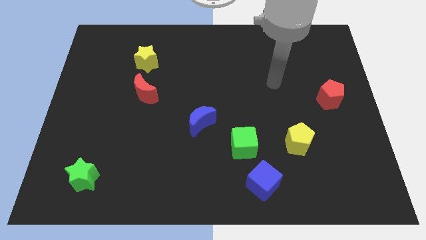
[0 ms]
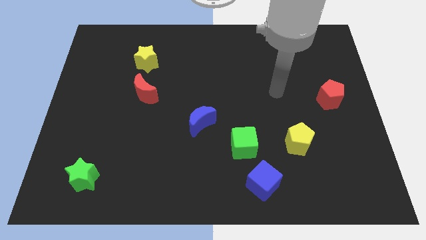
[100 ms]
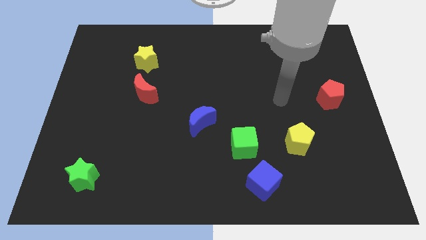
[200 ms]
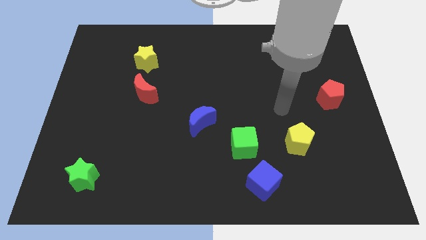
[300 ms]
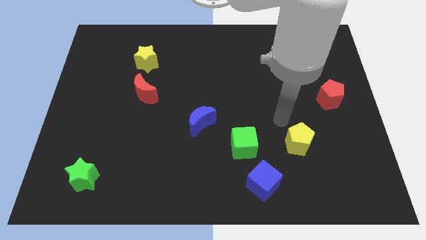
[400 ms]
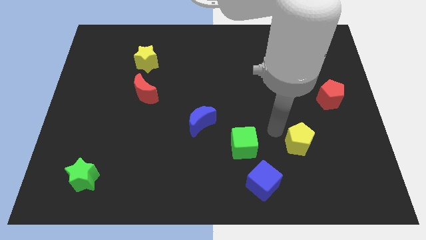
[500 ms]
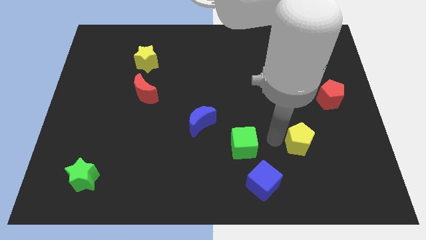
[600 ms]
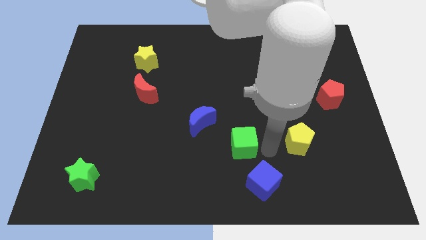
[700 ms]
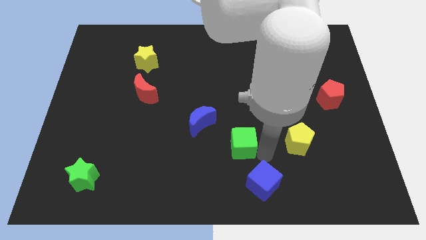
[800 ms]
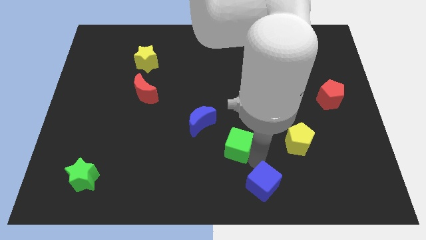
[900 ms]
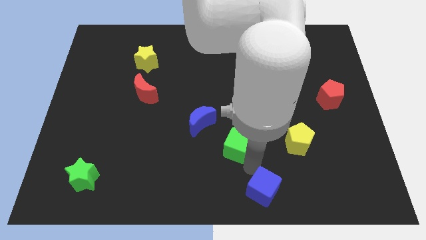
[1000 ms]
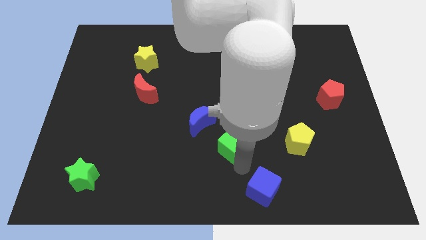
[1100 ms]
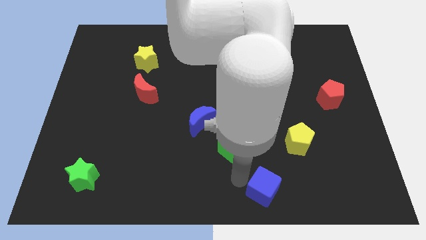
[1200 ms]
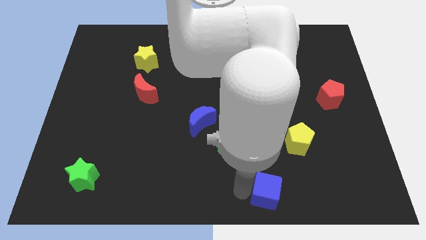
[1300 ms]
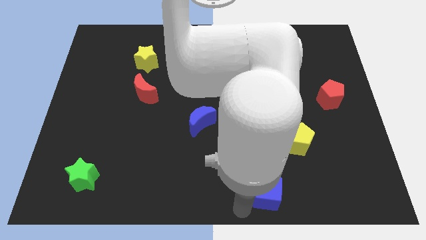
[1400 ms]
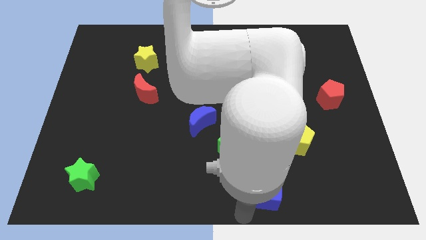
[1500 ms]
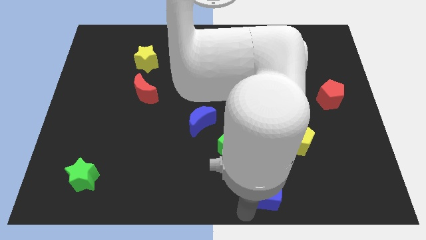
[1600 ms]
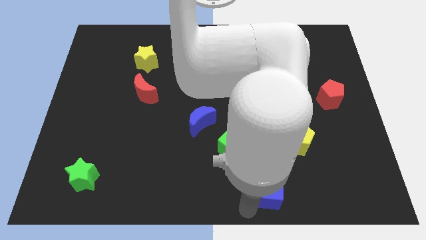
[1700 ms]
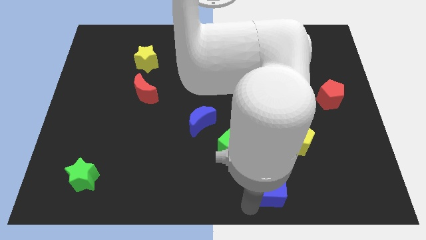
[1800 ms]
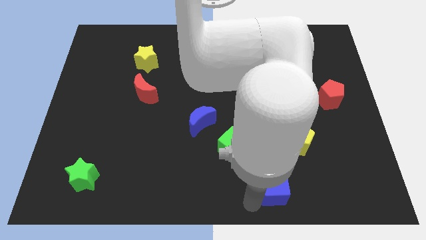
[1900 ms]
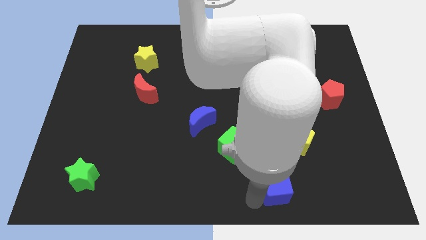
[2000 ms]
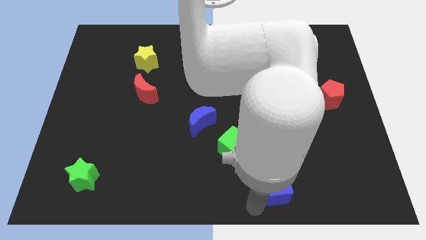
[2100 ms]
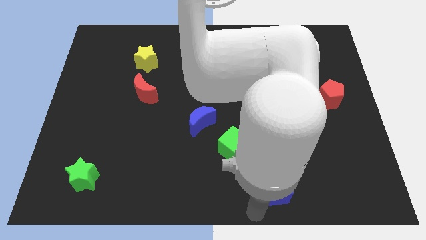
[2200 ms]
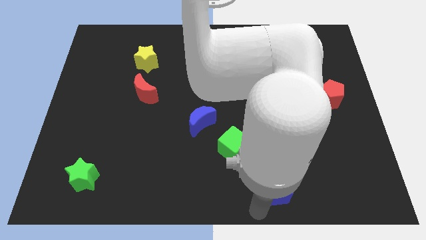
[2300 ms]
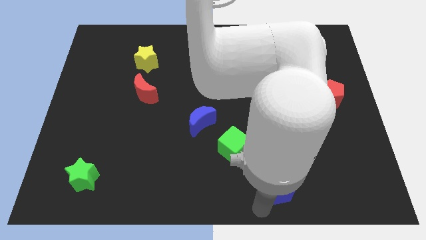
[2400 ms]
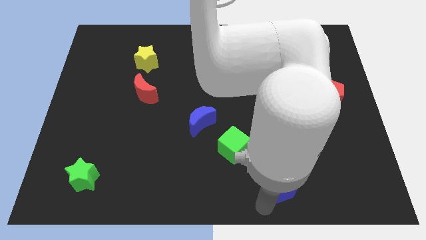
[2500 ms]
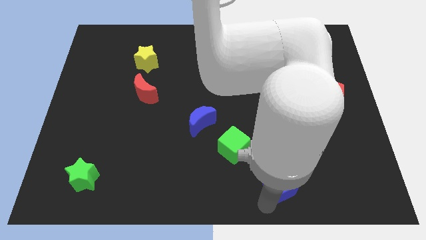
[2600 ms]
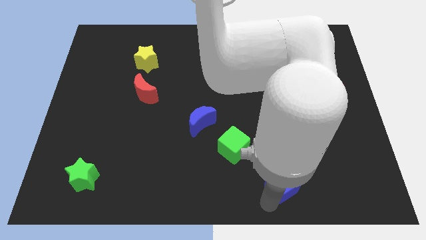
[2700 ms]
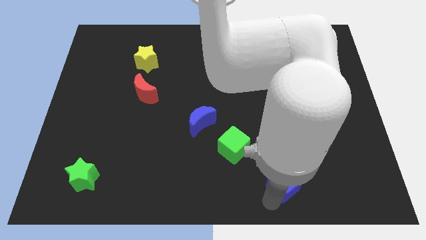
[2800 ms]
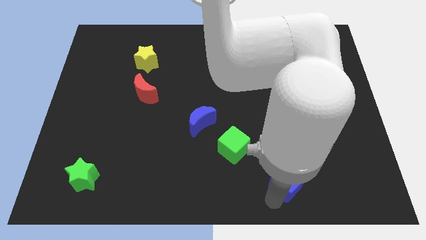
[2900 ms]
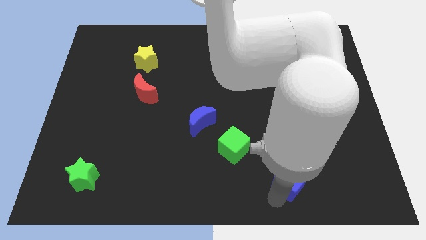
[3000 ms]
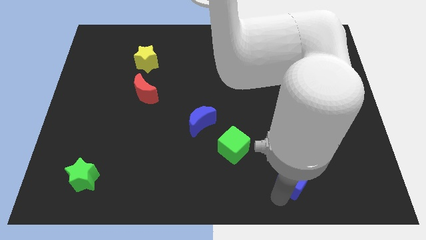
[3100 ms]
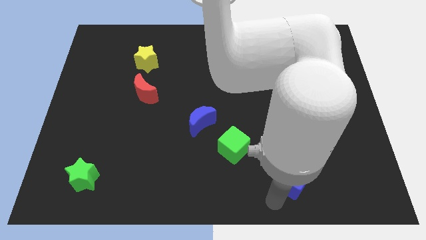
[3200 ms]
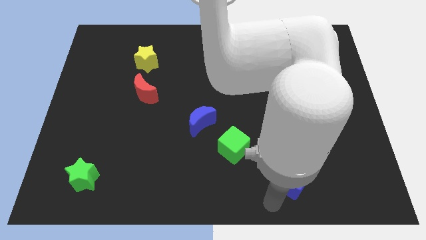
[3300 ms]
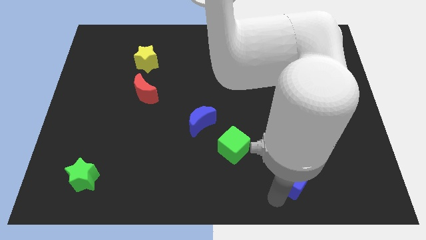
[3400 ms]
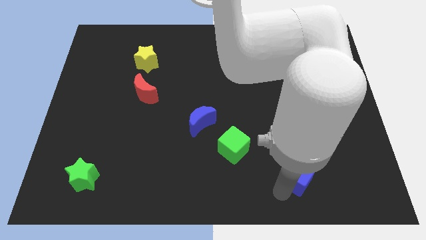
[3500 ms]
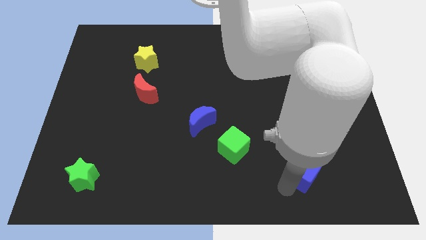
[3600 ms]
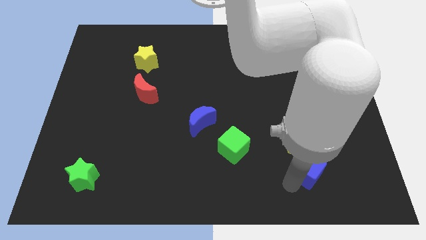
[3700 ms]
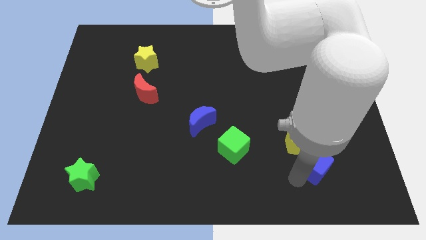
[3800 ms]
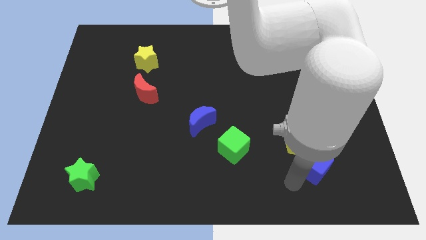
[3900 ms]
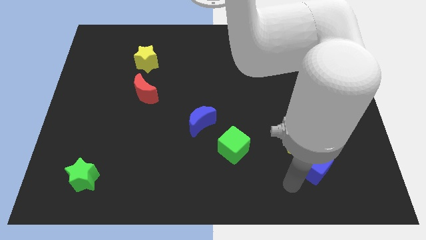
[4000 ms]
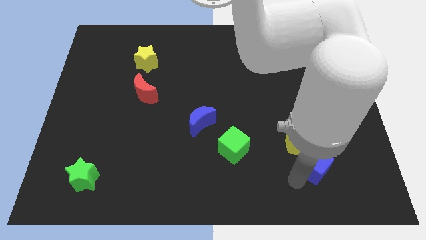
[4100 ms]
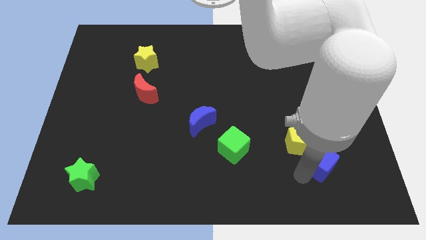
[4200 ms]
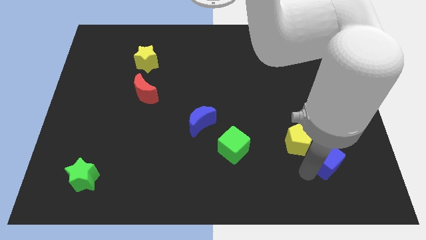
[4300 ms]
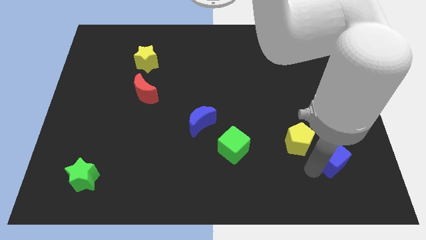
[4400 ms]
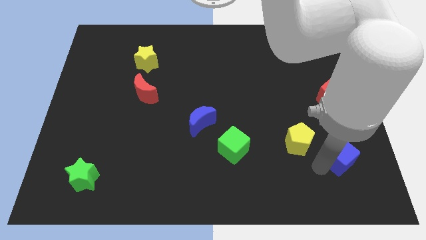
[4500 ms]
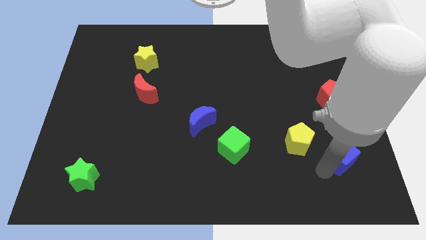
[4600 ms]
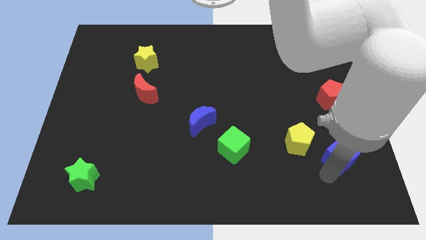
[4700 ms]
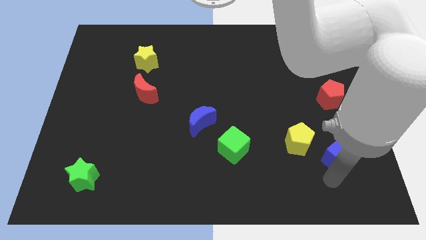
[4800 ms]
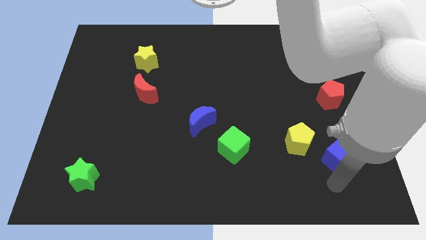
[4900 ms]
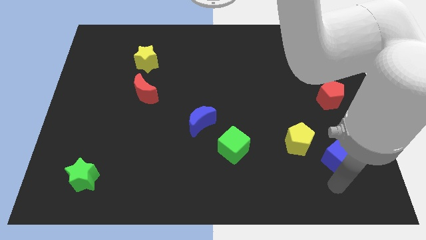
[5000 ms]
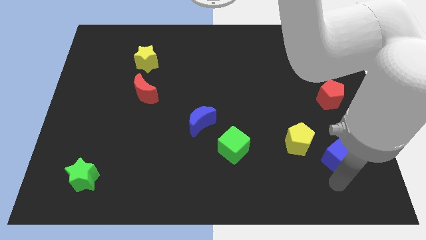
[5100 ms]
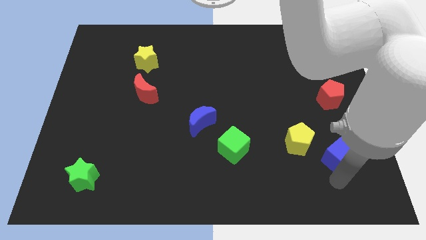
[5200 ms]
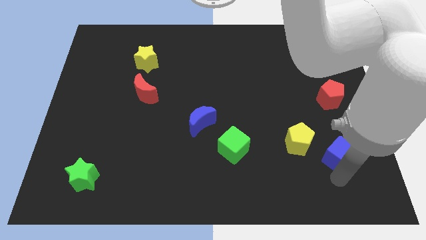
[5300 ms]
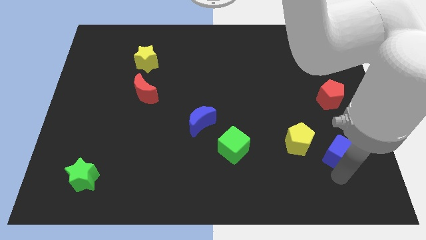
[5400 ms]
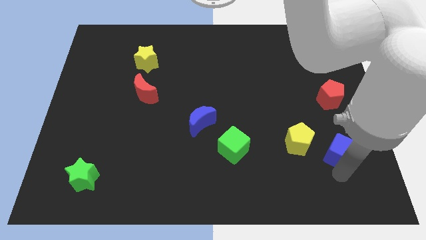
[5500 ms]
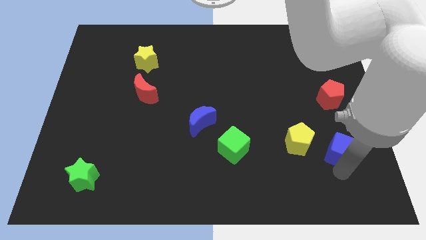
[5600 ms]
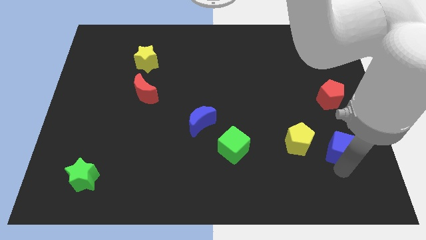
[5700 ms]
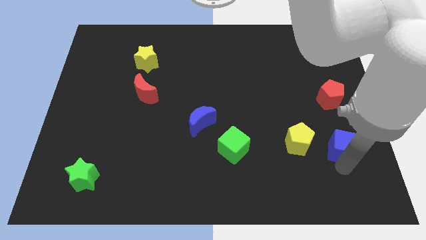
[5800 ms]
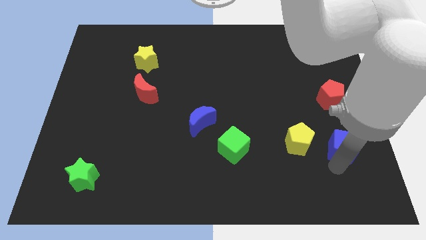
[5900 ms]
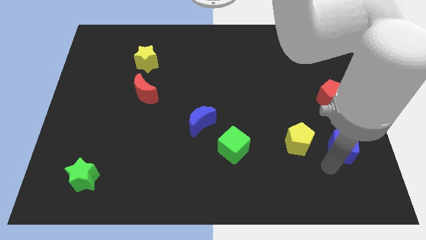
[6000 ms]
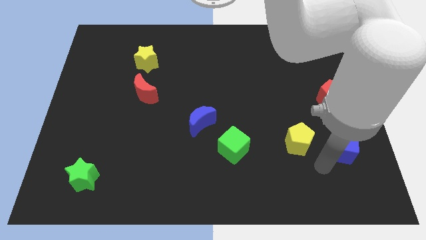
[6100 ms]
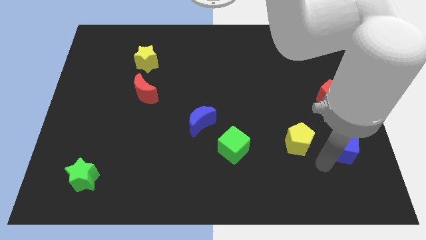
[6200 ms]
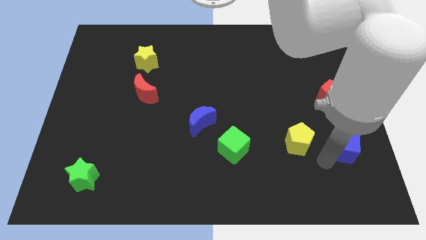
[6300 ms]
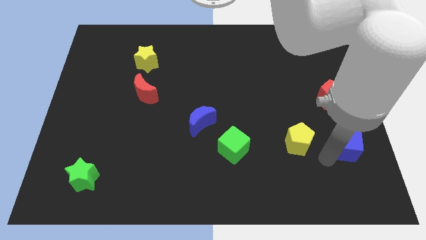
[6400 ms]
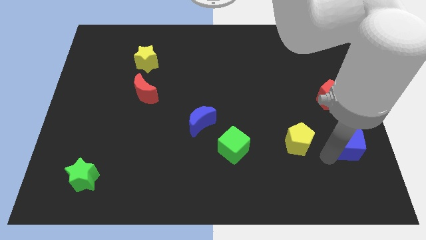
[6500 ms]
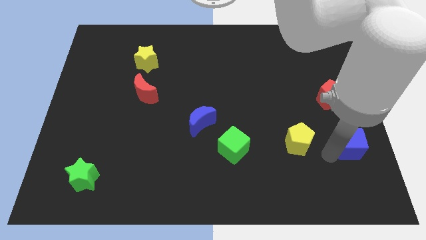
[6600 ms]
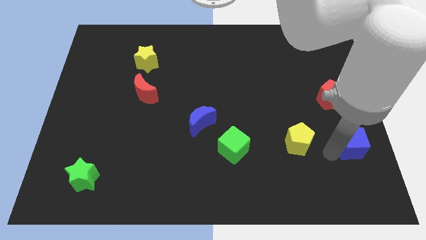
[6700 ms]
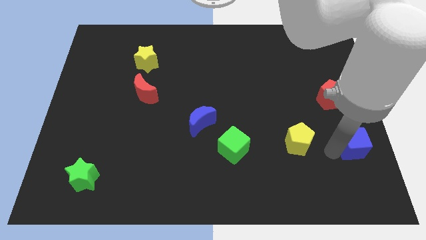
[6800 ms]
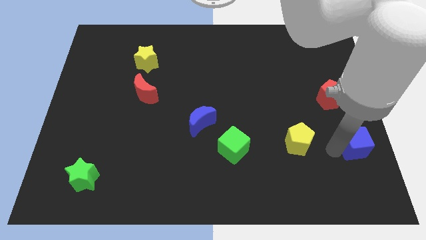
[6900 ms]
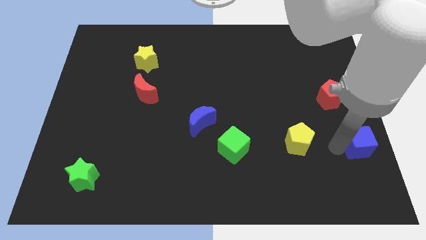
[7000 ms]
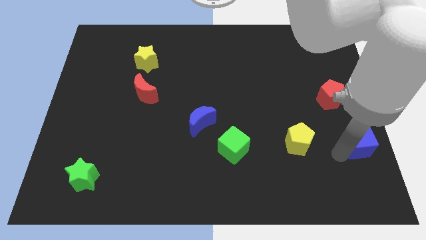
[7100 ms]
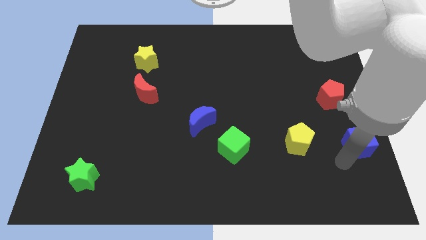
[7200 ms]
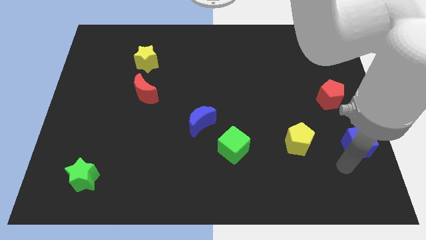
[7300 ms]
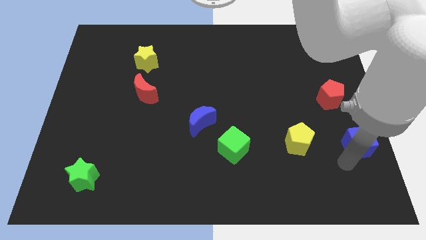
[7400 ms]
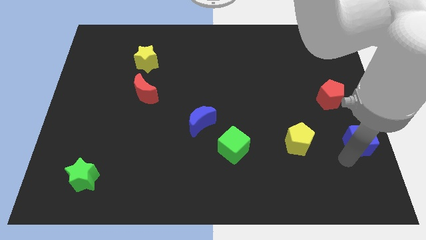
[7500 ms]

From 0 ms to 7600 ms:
put the blue cube to the right side of the board
